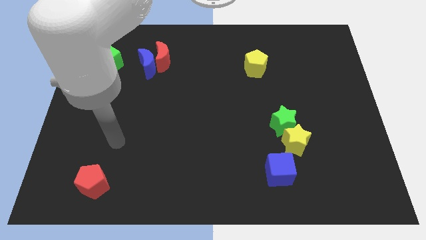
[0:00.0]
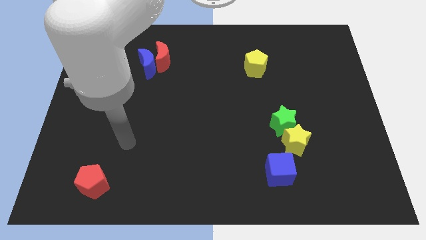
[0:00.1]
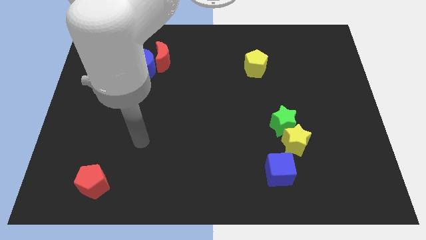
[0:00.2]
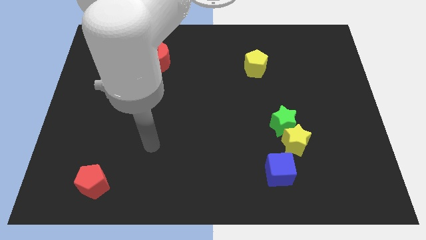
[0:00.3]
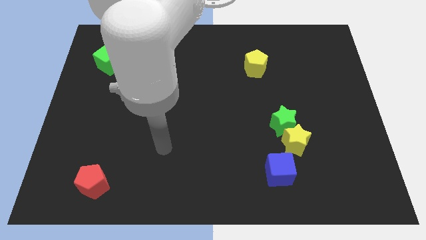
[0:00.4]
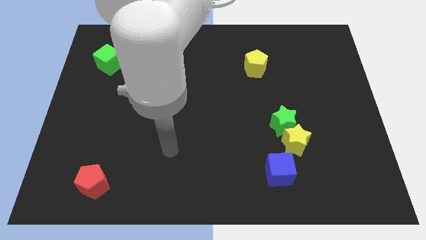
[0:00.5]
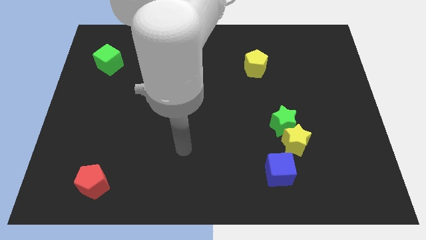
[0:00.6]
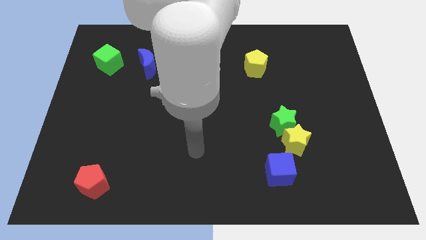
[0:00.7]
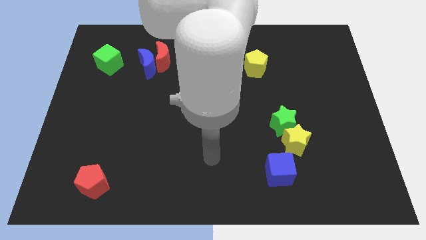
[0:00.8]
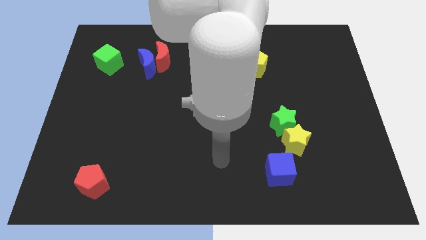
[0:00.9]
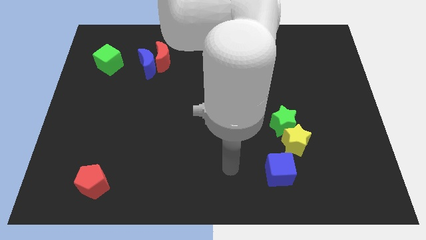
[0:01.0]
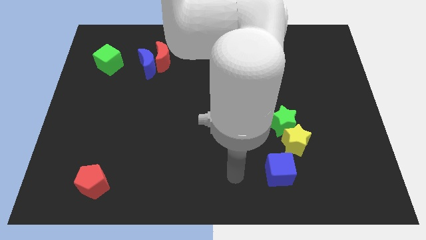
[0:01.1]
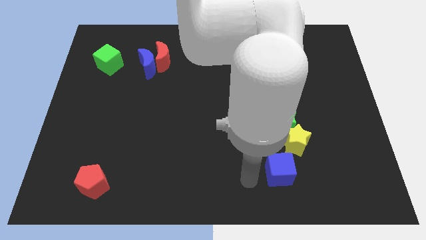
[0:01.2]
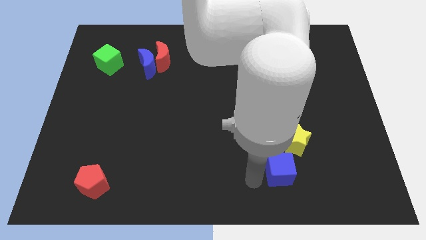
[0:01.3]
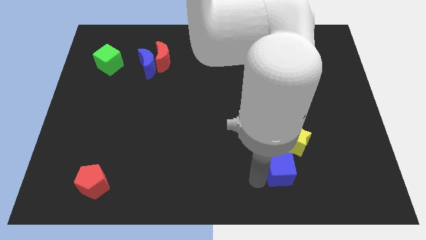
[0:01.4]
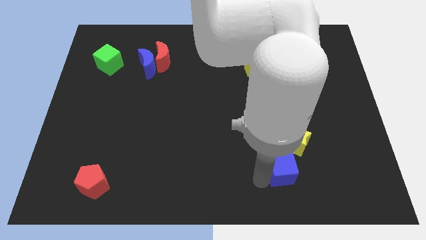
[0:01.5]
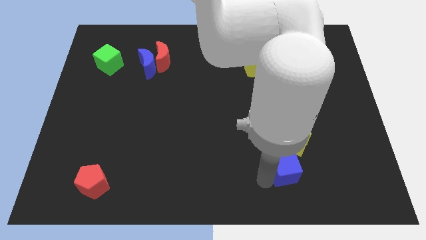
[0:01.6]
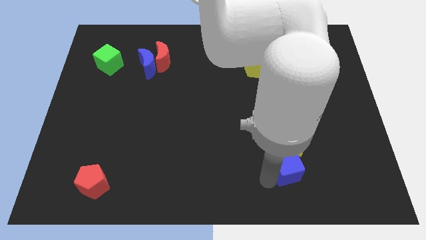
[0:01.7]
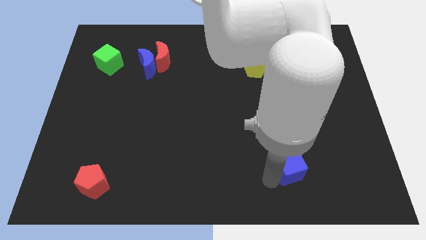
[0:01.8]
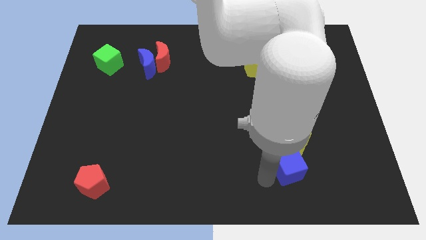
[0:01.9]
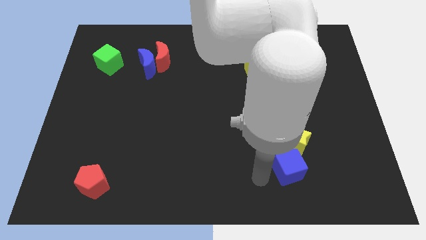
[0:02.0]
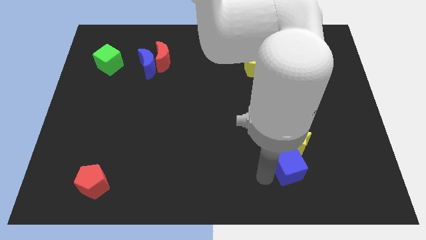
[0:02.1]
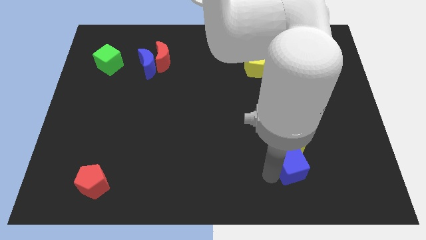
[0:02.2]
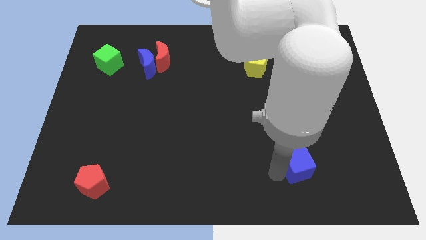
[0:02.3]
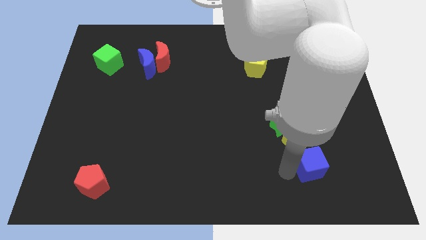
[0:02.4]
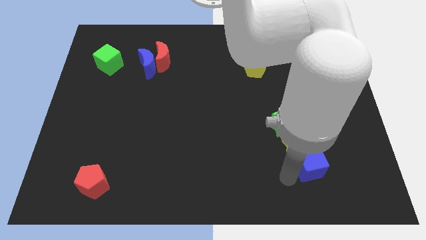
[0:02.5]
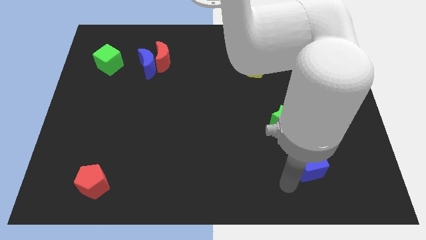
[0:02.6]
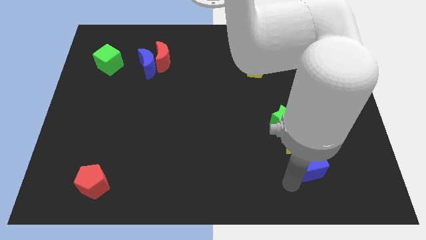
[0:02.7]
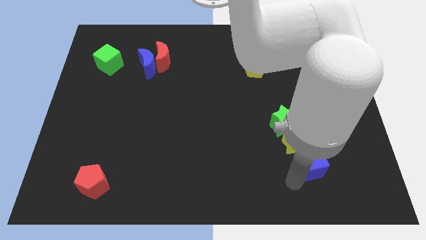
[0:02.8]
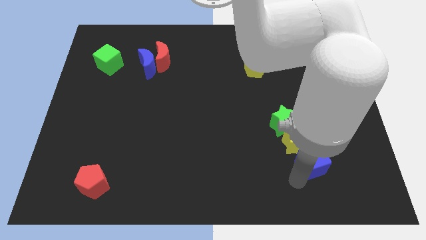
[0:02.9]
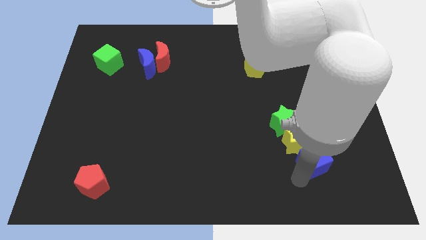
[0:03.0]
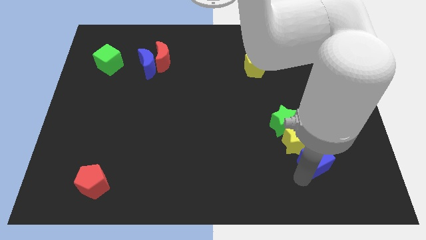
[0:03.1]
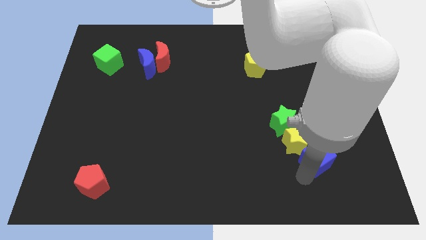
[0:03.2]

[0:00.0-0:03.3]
slightly move the blue cube up and right

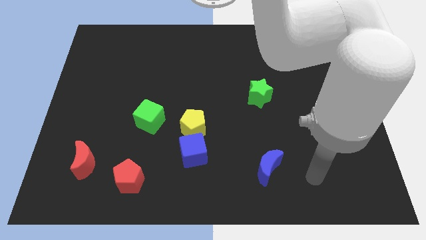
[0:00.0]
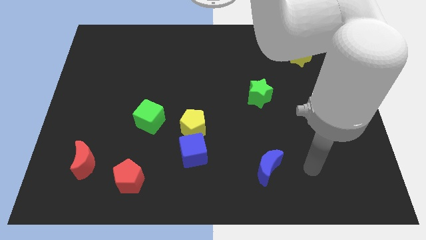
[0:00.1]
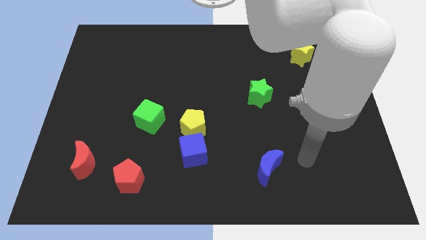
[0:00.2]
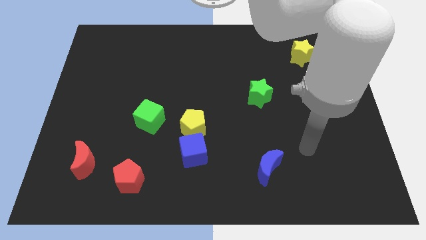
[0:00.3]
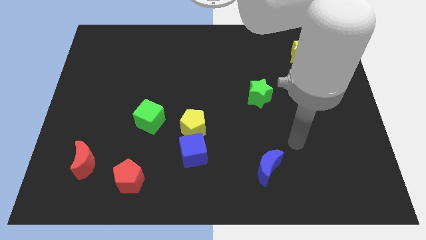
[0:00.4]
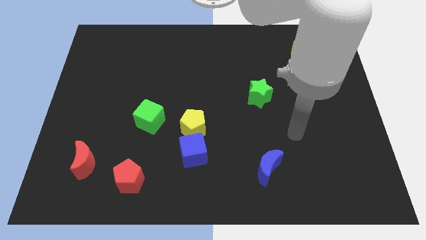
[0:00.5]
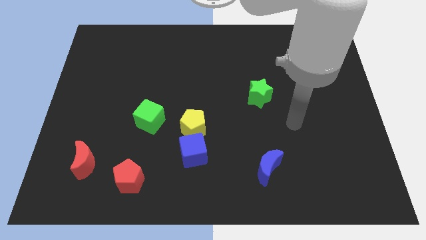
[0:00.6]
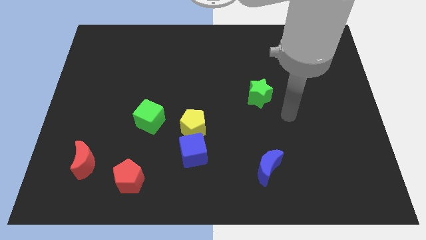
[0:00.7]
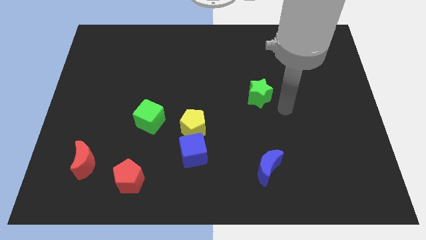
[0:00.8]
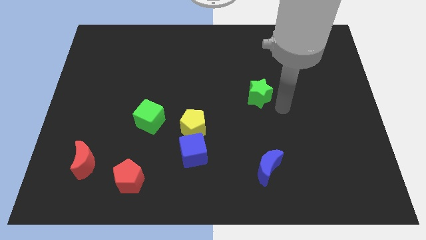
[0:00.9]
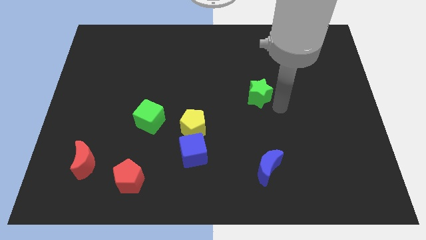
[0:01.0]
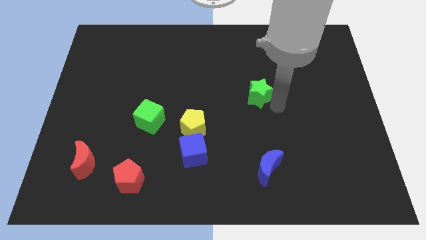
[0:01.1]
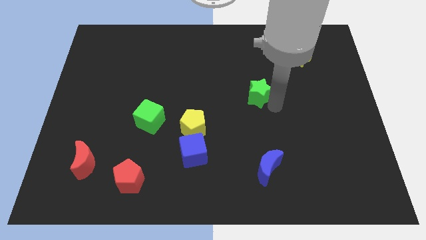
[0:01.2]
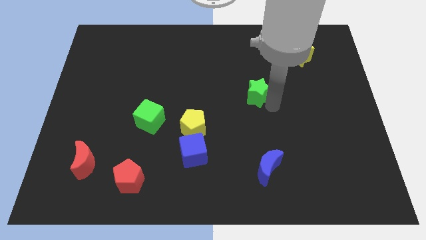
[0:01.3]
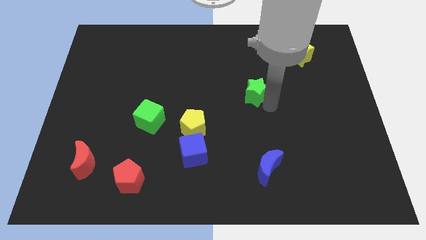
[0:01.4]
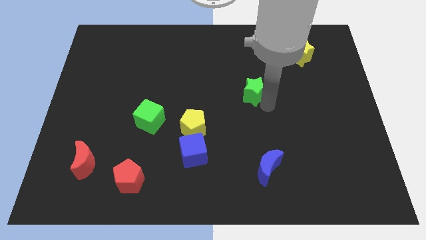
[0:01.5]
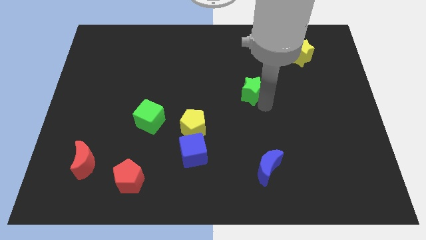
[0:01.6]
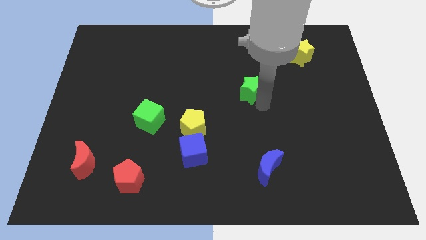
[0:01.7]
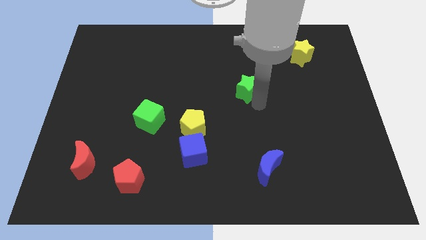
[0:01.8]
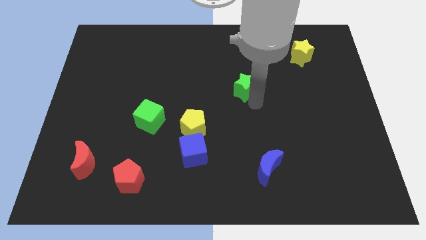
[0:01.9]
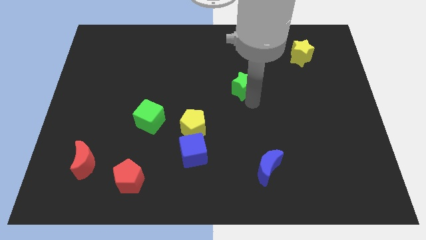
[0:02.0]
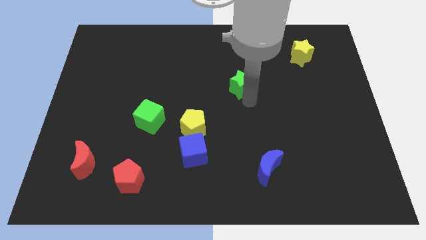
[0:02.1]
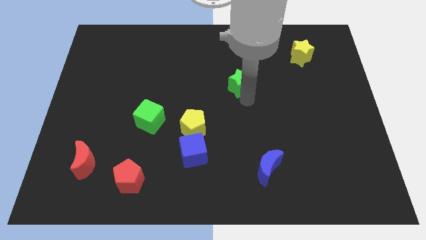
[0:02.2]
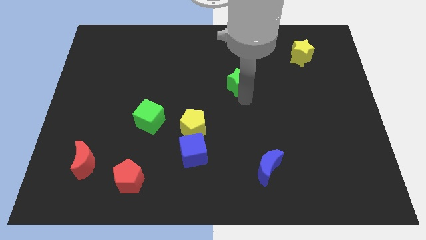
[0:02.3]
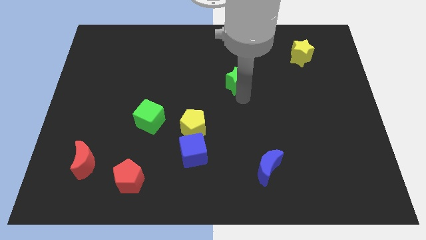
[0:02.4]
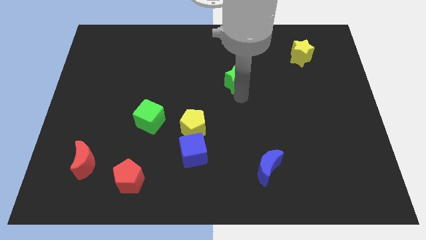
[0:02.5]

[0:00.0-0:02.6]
push the green star diagonally up and left a little bit

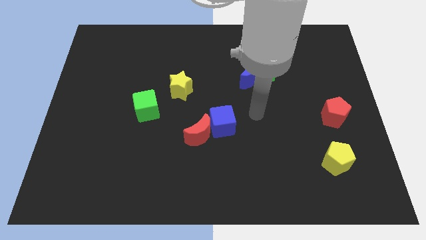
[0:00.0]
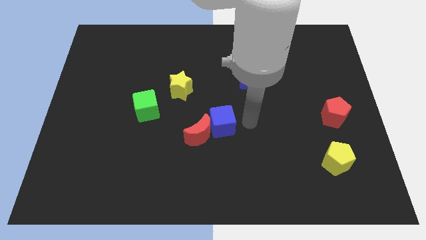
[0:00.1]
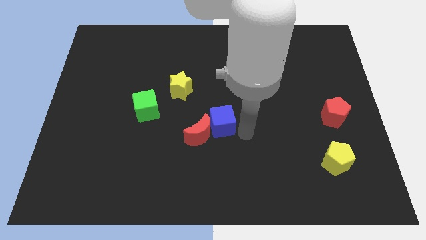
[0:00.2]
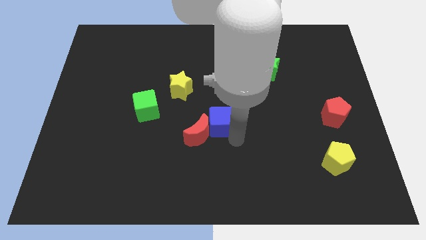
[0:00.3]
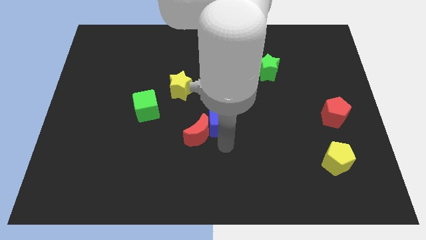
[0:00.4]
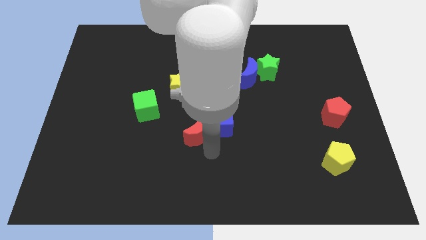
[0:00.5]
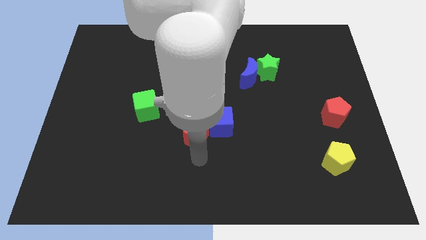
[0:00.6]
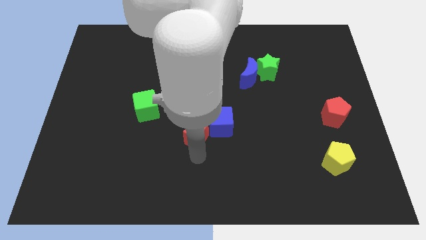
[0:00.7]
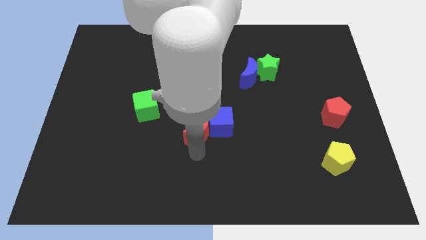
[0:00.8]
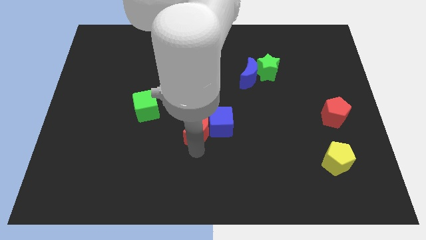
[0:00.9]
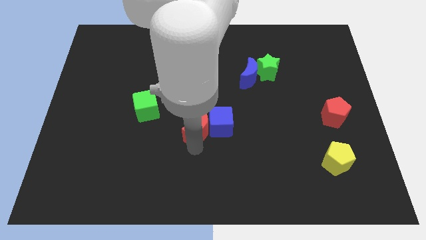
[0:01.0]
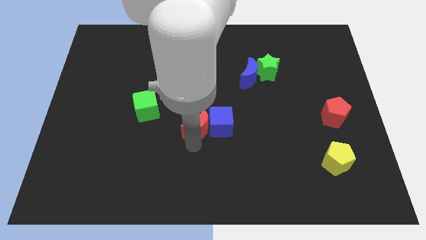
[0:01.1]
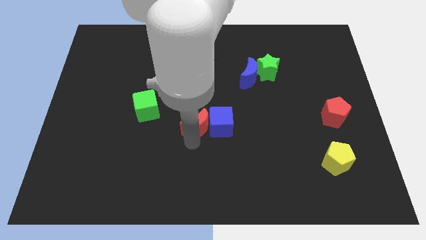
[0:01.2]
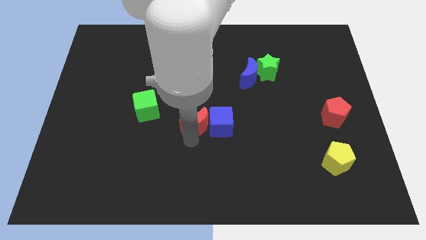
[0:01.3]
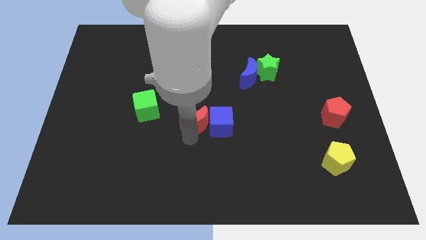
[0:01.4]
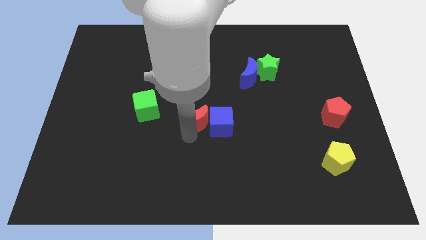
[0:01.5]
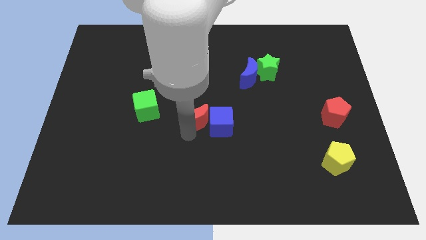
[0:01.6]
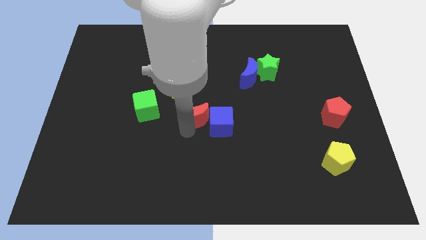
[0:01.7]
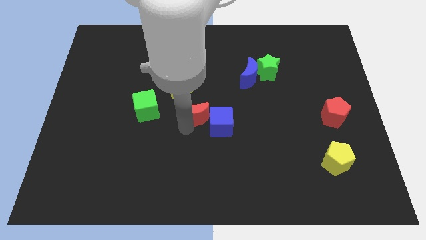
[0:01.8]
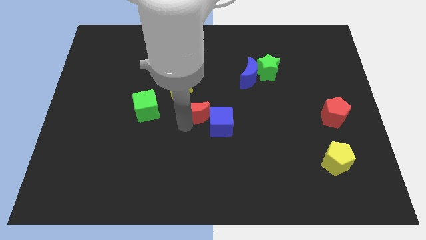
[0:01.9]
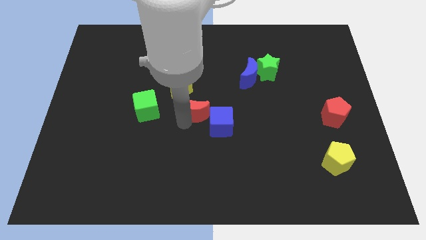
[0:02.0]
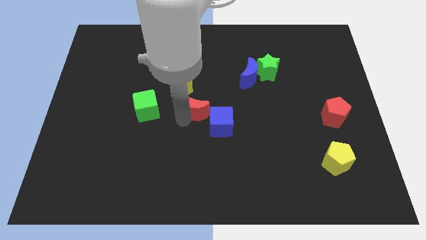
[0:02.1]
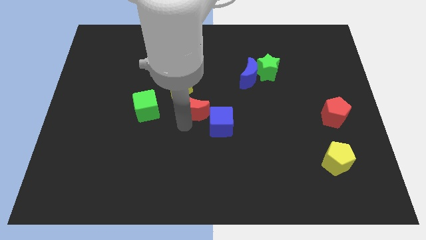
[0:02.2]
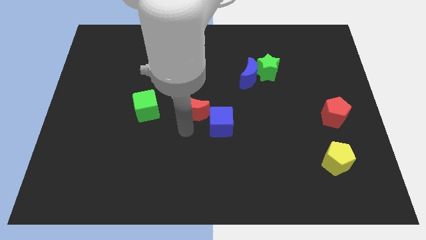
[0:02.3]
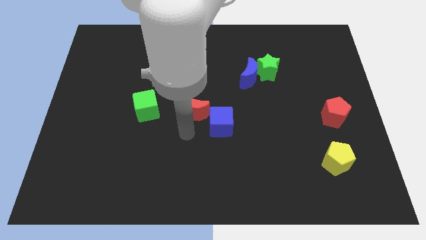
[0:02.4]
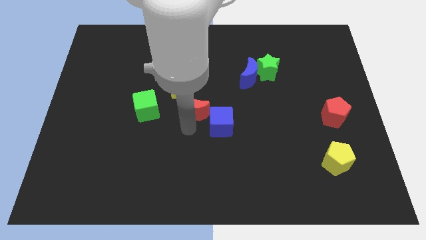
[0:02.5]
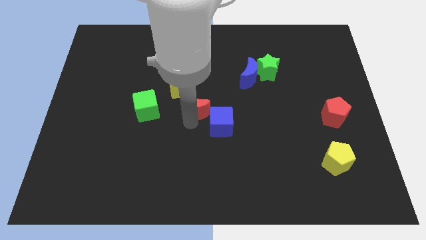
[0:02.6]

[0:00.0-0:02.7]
slightly move the red moon upwards
